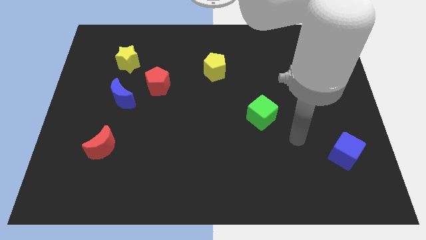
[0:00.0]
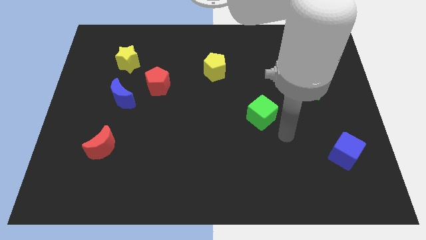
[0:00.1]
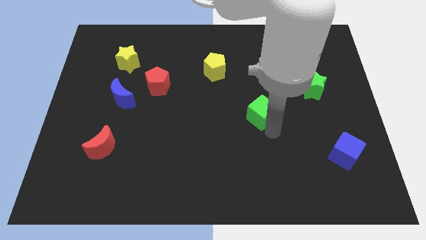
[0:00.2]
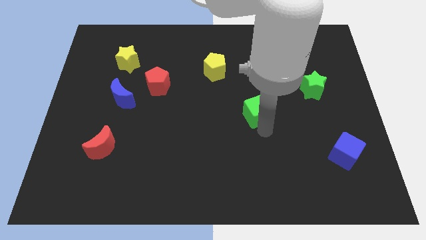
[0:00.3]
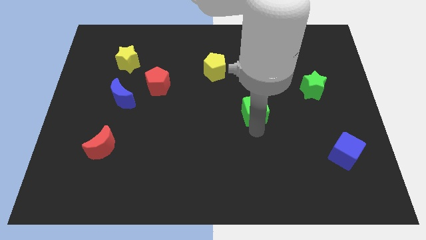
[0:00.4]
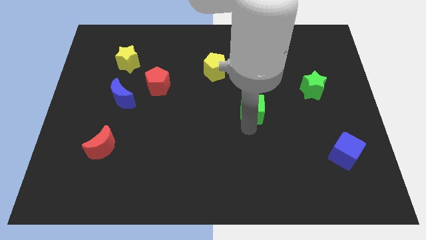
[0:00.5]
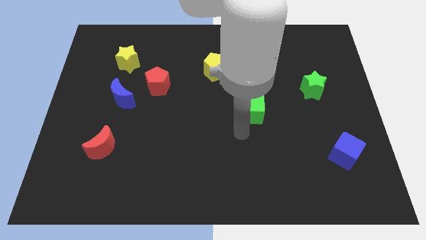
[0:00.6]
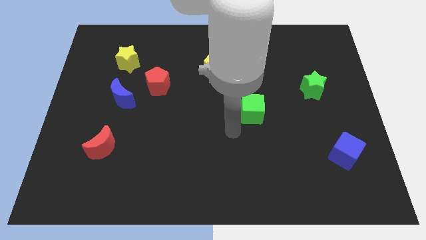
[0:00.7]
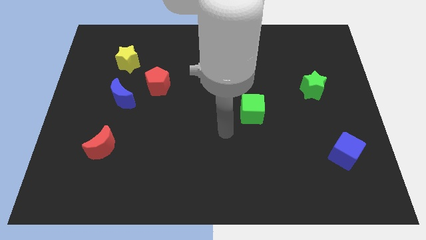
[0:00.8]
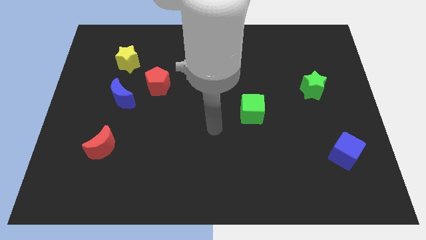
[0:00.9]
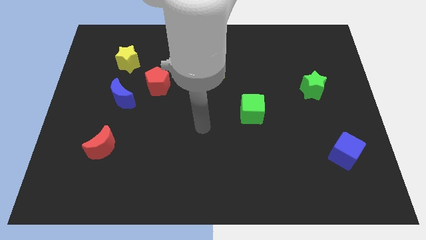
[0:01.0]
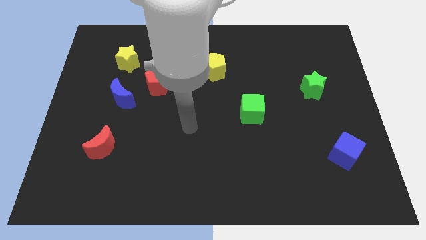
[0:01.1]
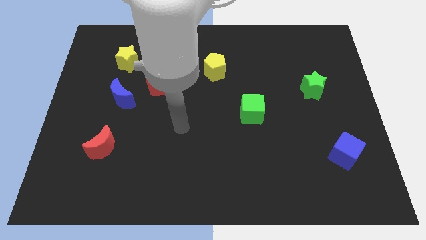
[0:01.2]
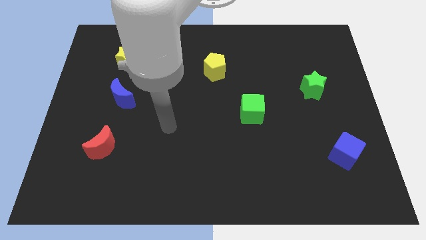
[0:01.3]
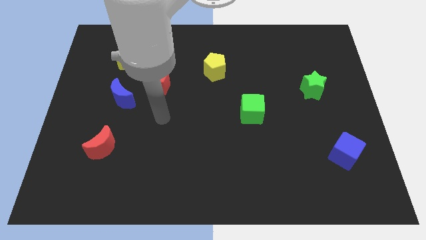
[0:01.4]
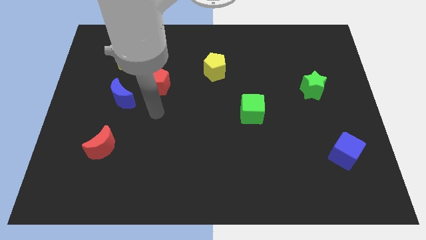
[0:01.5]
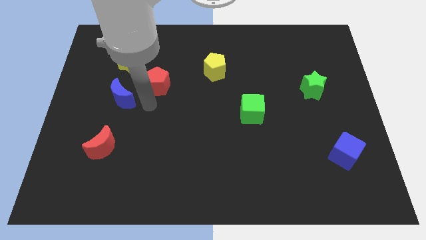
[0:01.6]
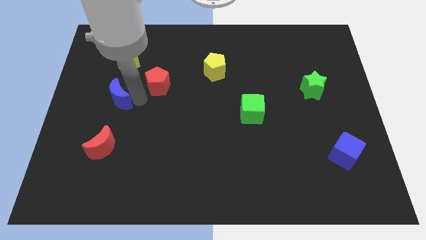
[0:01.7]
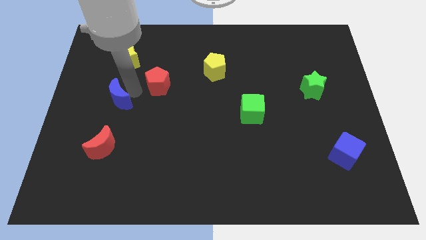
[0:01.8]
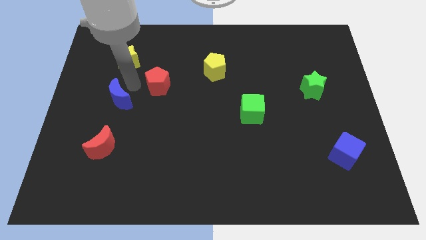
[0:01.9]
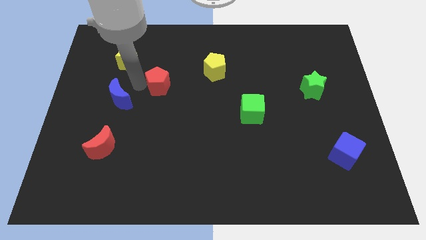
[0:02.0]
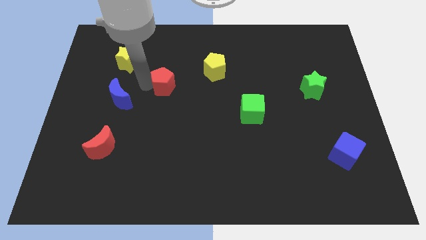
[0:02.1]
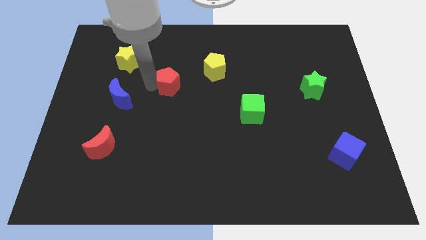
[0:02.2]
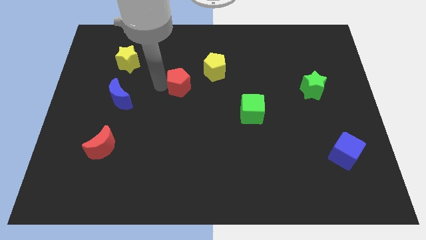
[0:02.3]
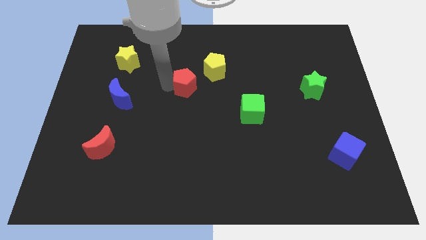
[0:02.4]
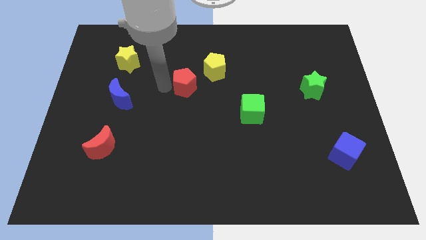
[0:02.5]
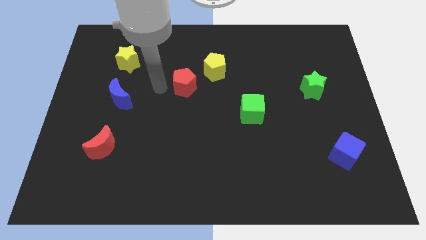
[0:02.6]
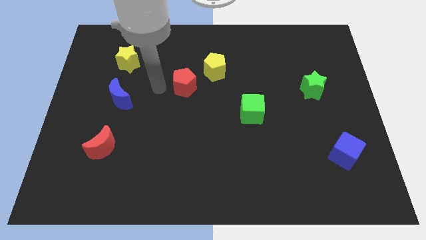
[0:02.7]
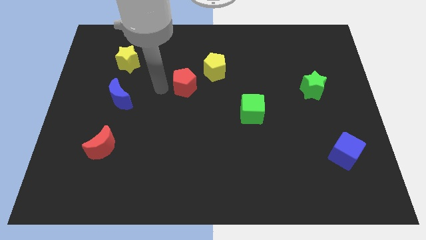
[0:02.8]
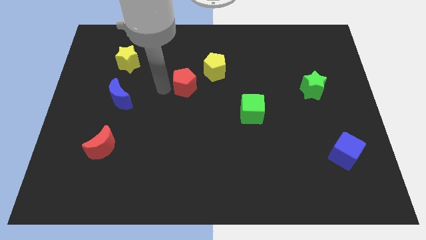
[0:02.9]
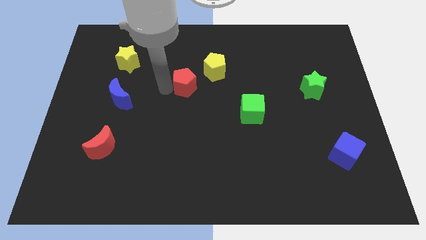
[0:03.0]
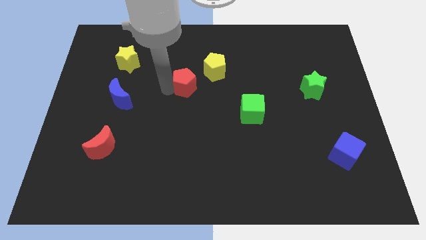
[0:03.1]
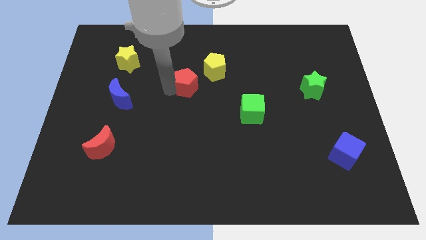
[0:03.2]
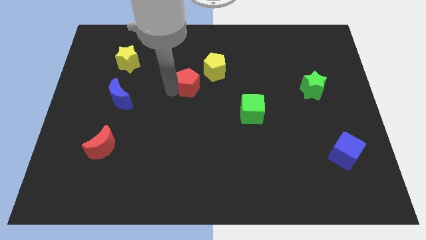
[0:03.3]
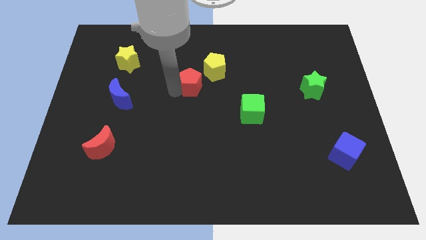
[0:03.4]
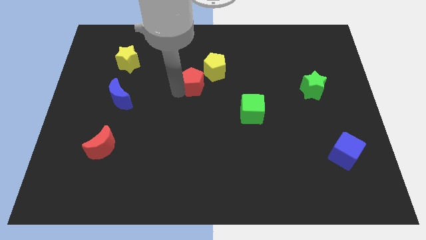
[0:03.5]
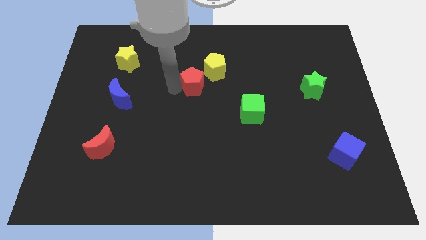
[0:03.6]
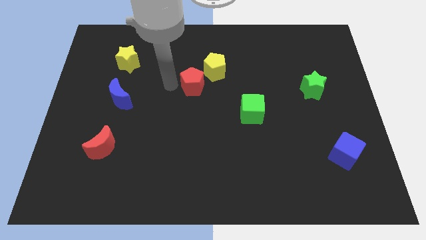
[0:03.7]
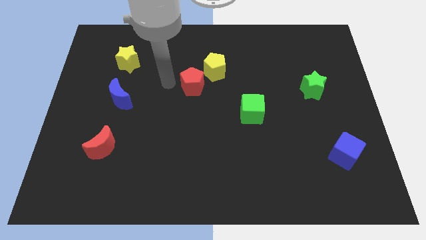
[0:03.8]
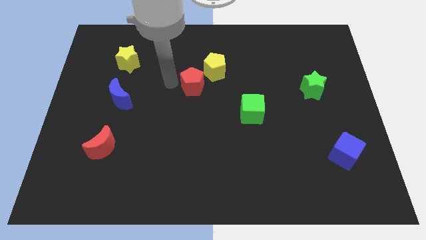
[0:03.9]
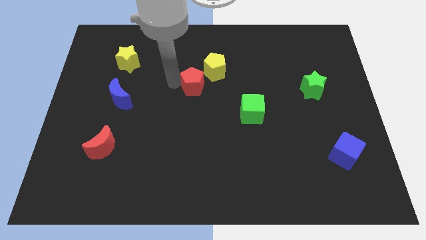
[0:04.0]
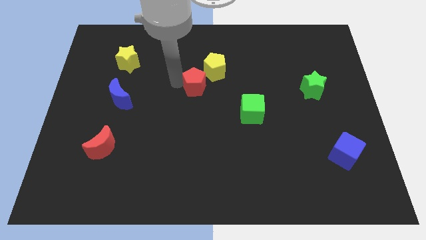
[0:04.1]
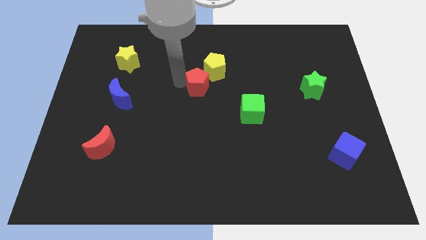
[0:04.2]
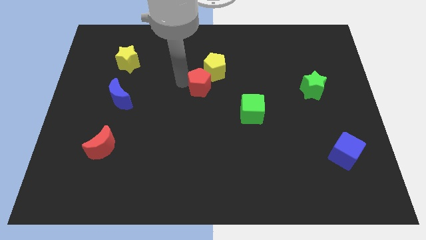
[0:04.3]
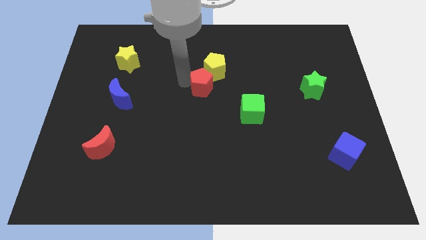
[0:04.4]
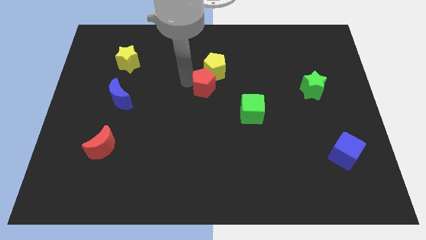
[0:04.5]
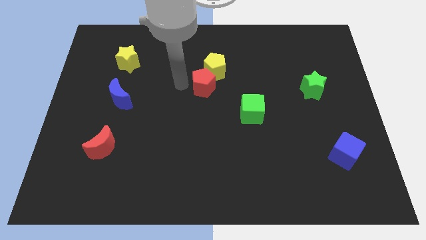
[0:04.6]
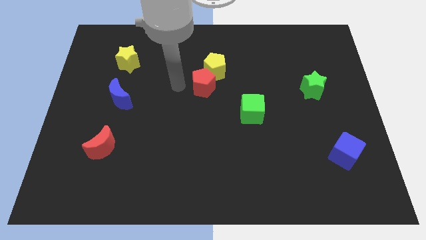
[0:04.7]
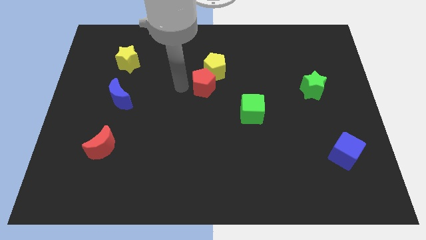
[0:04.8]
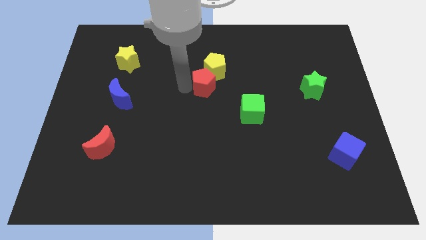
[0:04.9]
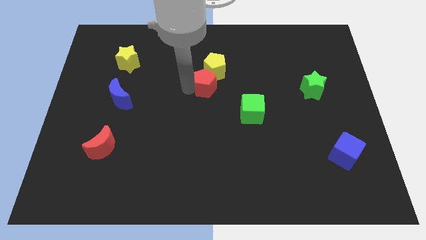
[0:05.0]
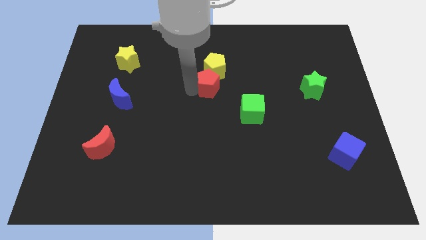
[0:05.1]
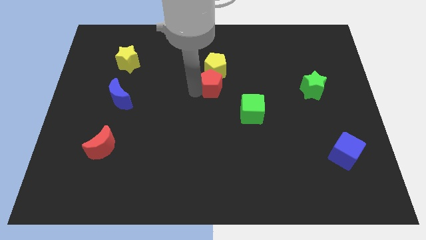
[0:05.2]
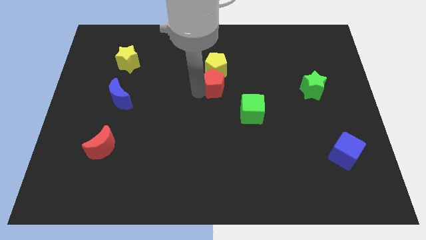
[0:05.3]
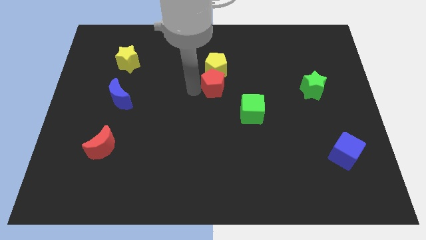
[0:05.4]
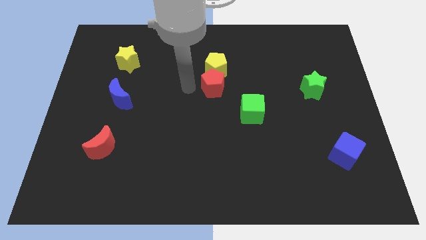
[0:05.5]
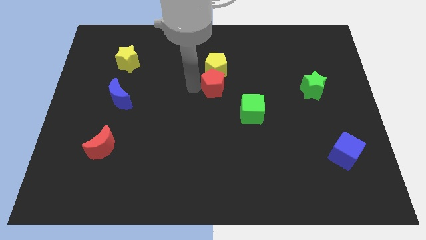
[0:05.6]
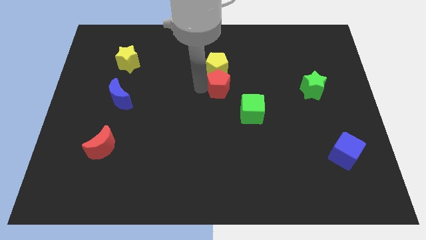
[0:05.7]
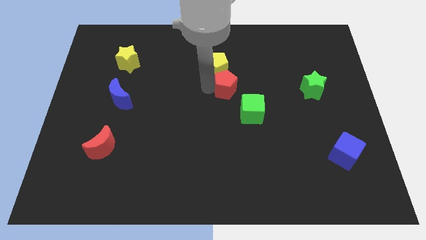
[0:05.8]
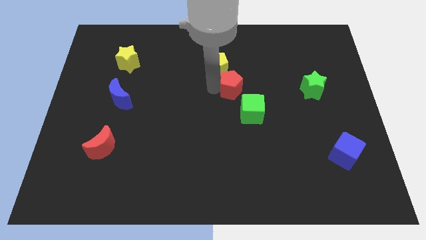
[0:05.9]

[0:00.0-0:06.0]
slide the red pentagon to the top of the green cube
